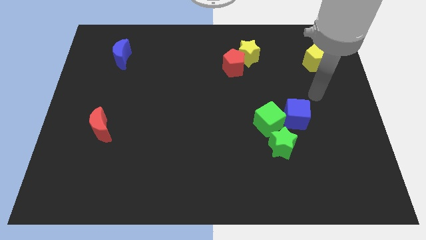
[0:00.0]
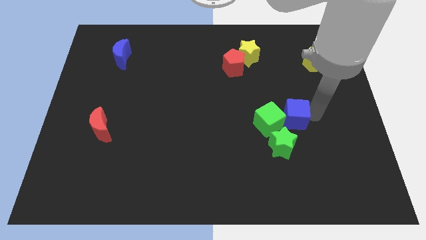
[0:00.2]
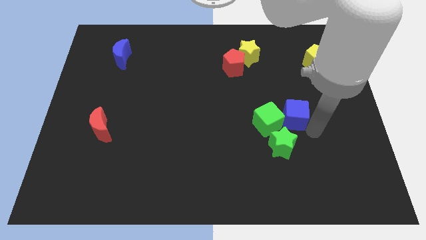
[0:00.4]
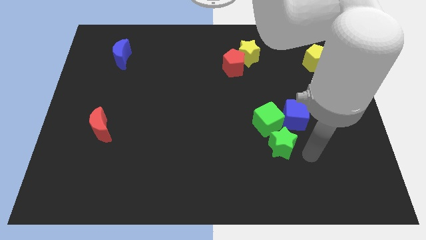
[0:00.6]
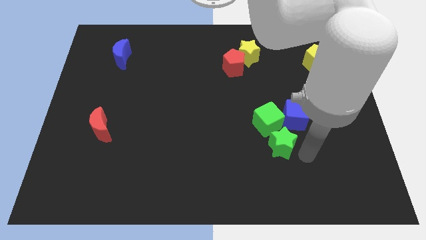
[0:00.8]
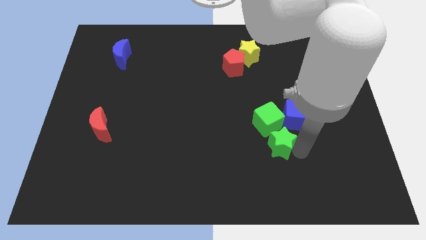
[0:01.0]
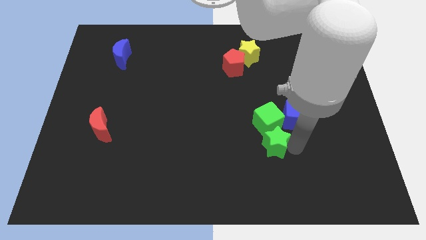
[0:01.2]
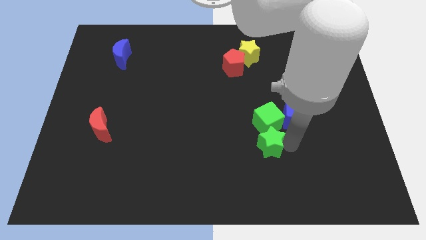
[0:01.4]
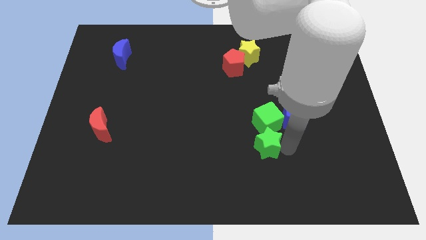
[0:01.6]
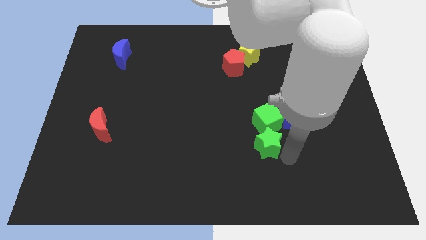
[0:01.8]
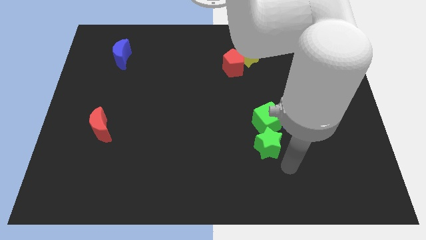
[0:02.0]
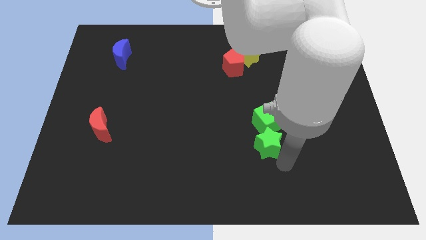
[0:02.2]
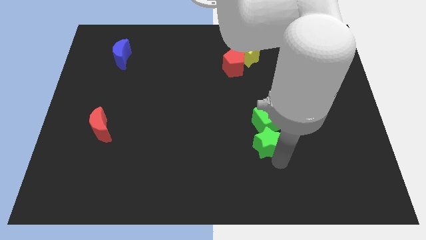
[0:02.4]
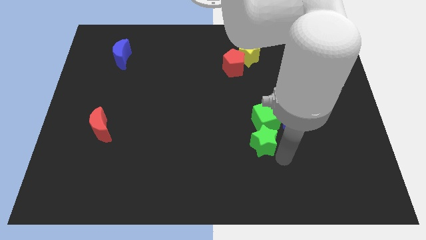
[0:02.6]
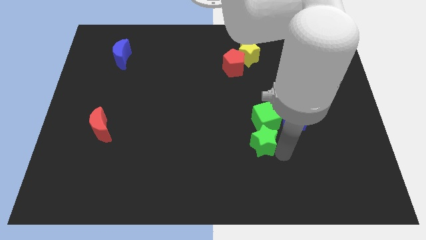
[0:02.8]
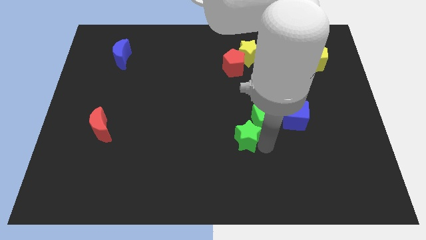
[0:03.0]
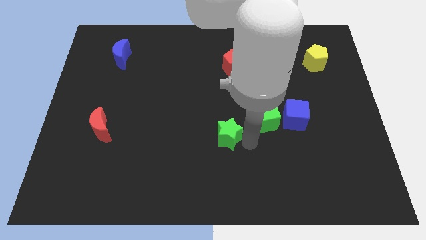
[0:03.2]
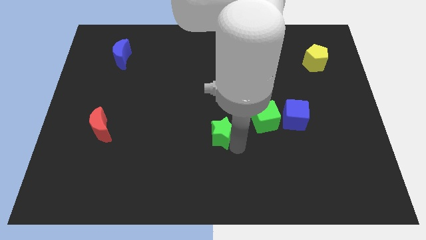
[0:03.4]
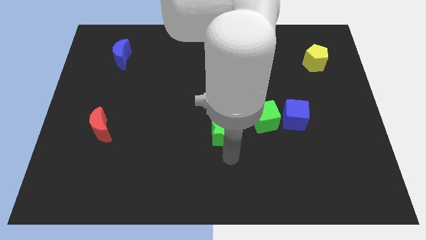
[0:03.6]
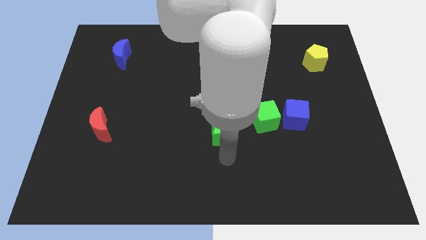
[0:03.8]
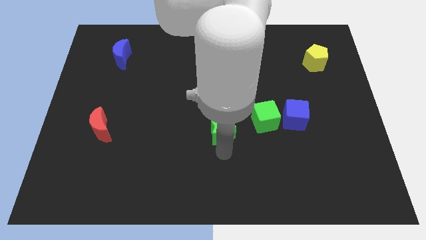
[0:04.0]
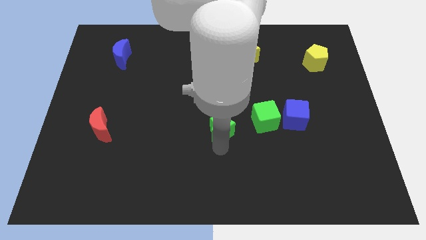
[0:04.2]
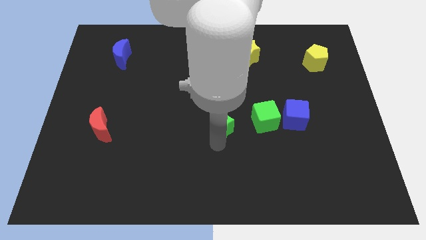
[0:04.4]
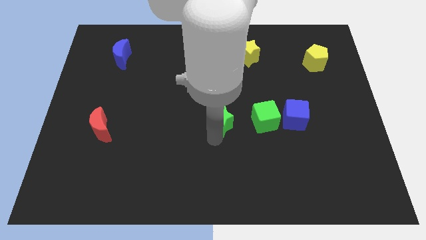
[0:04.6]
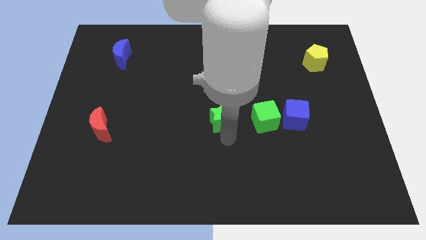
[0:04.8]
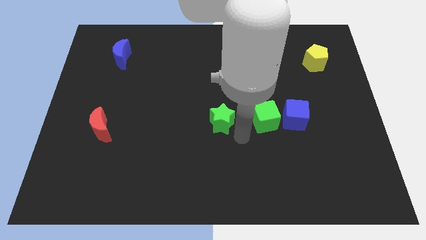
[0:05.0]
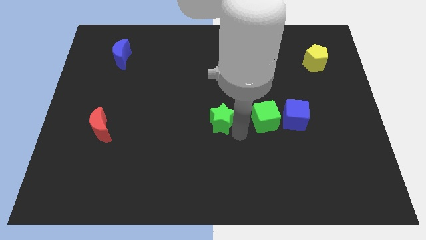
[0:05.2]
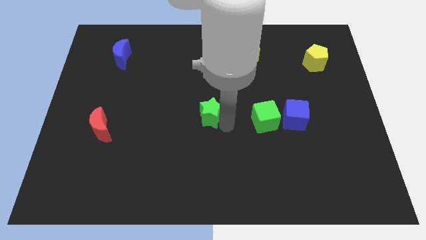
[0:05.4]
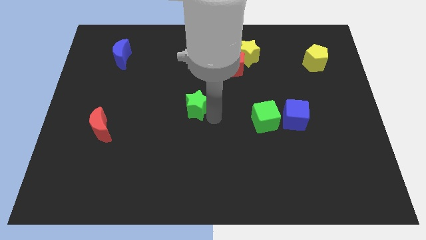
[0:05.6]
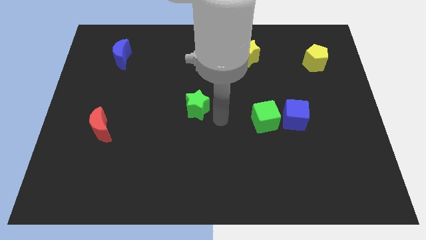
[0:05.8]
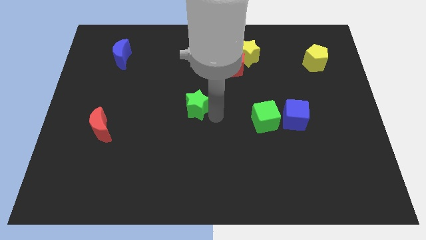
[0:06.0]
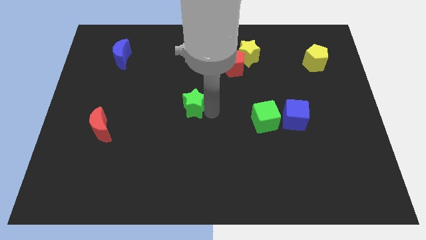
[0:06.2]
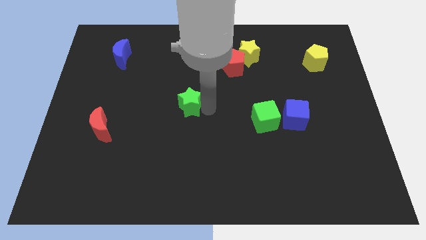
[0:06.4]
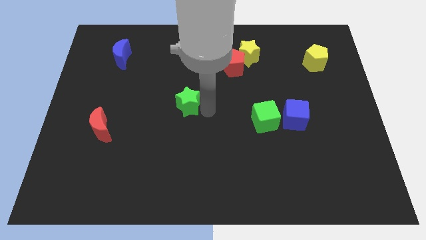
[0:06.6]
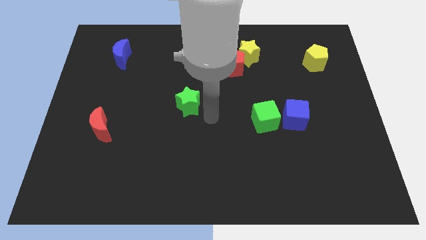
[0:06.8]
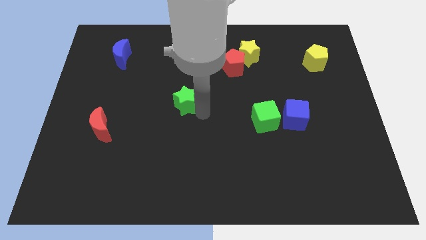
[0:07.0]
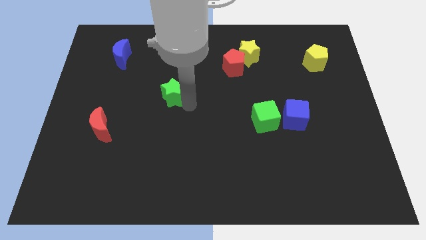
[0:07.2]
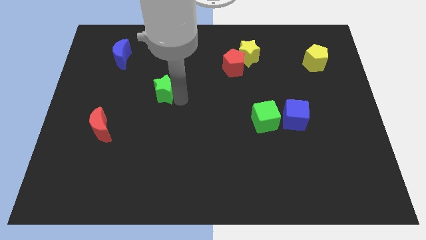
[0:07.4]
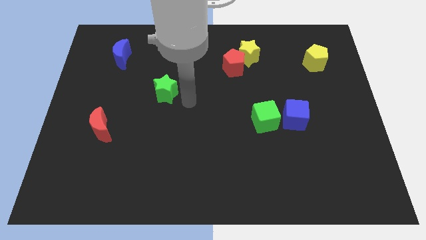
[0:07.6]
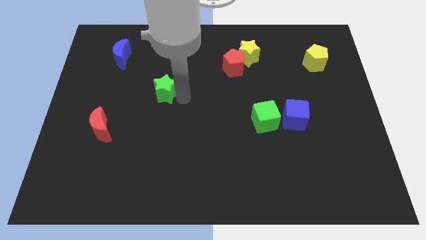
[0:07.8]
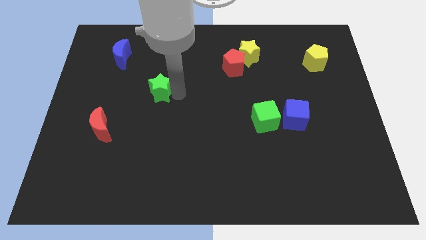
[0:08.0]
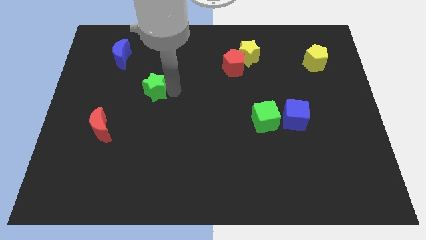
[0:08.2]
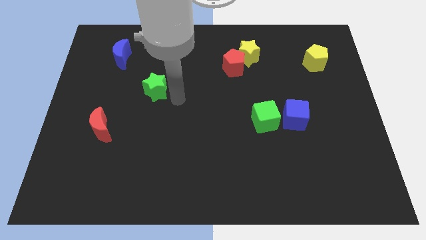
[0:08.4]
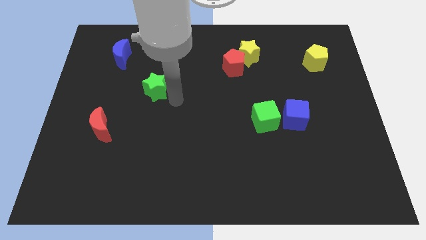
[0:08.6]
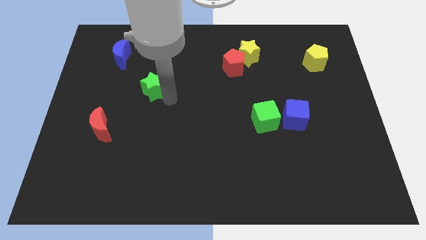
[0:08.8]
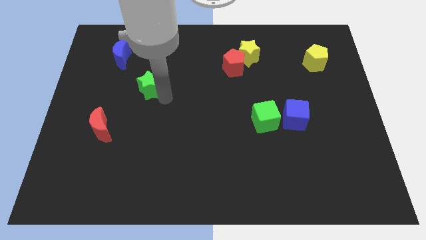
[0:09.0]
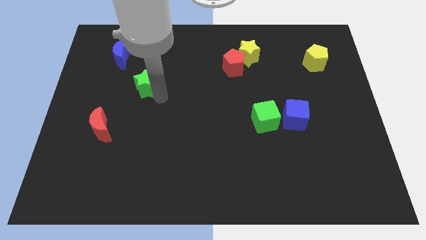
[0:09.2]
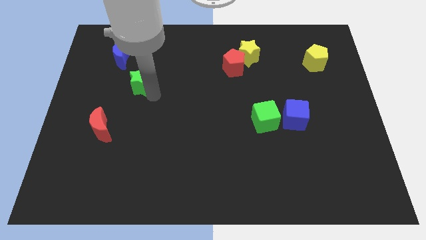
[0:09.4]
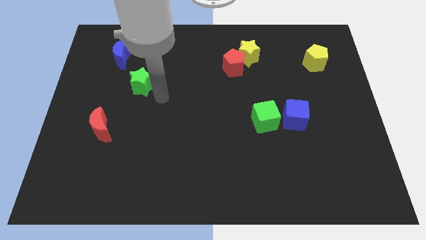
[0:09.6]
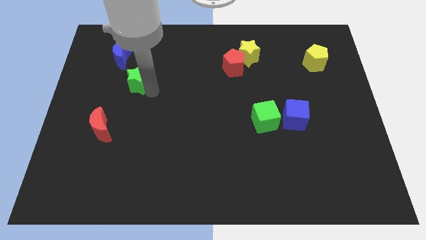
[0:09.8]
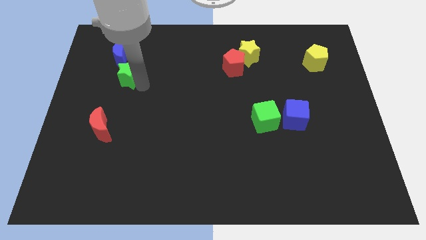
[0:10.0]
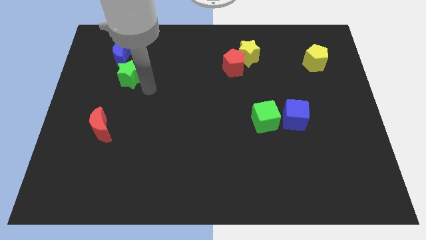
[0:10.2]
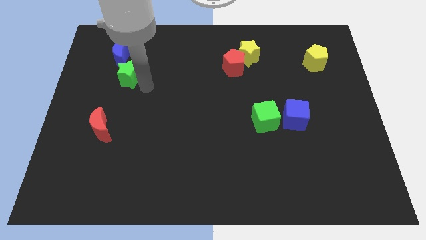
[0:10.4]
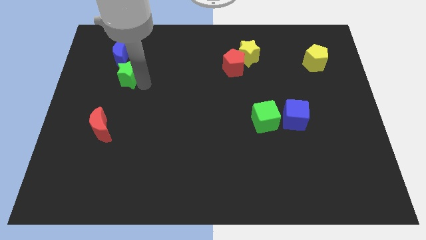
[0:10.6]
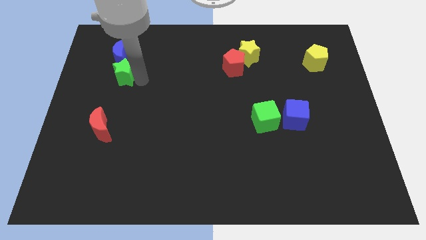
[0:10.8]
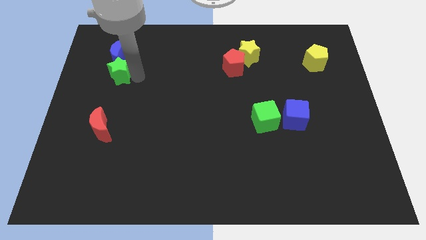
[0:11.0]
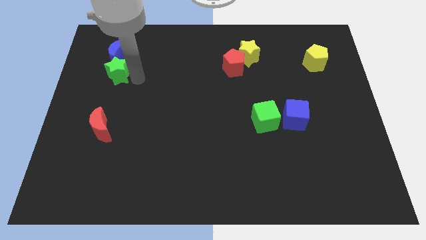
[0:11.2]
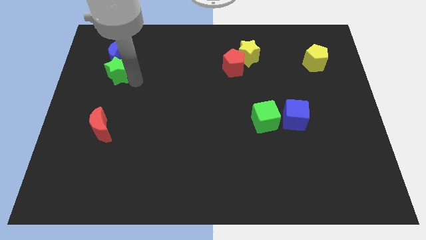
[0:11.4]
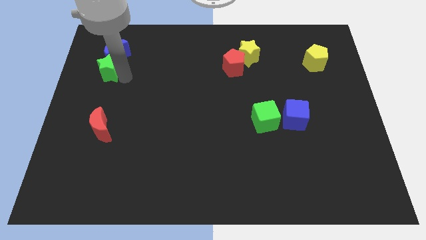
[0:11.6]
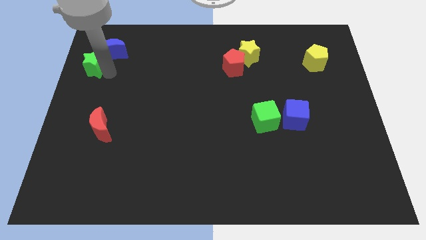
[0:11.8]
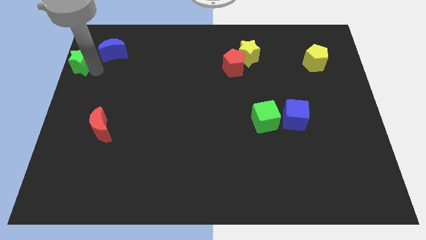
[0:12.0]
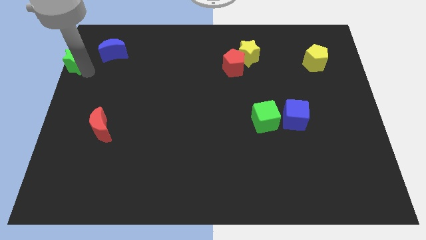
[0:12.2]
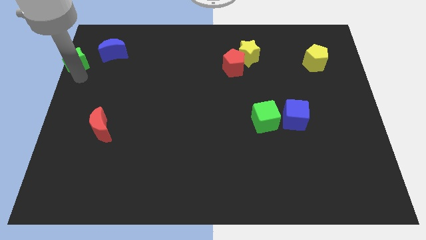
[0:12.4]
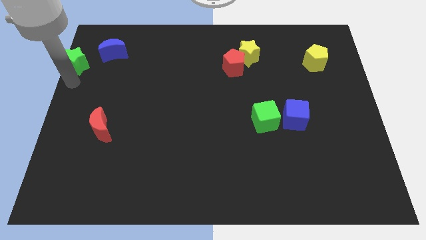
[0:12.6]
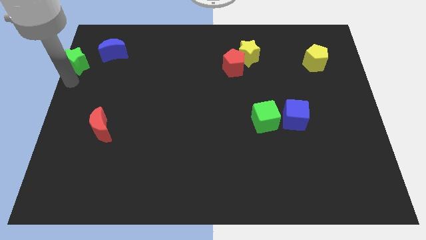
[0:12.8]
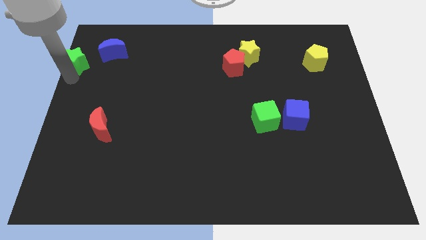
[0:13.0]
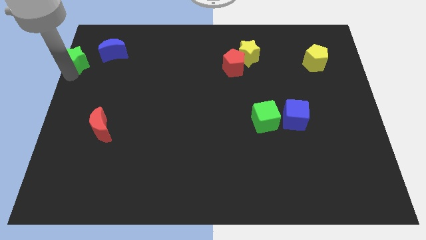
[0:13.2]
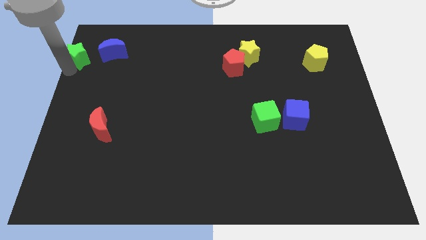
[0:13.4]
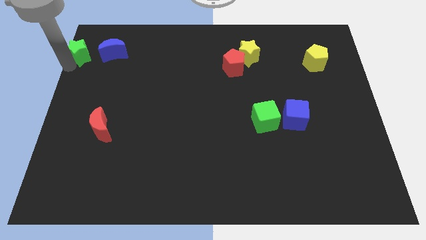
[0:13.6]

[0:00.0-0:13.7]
put the green star to the top left of the board
